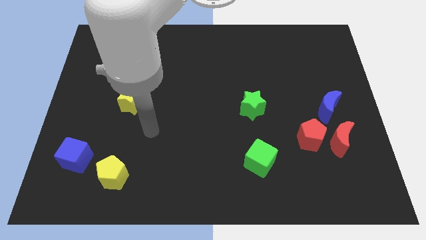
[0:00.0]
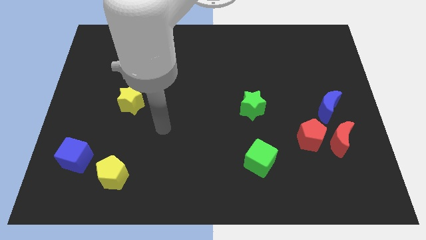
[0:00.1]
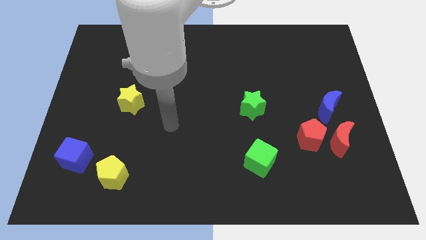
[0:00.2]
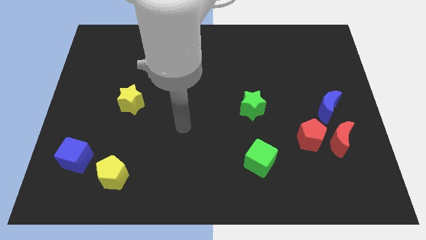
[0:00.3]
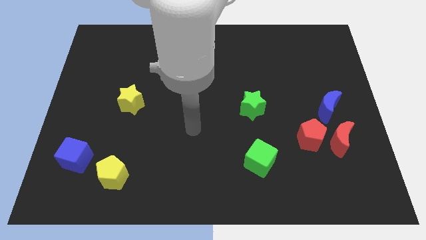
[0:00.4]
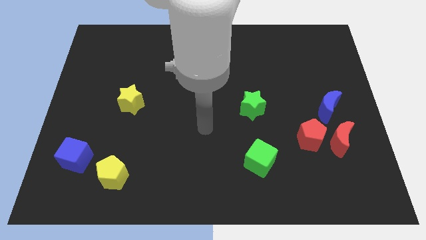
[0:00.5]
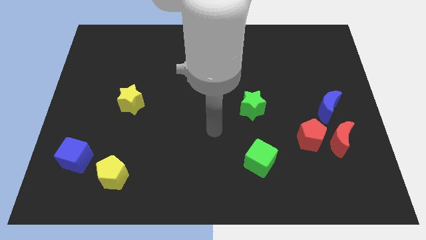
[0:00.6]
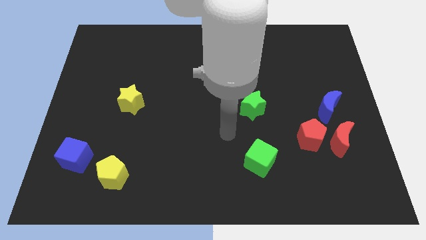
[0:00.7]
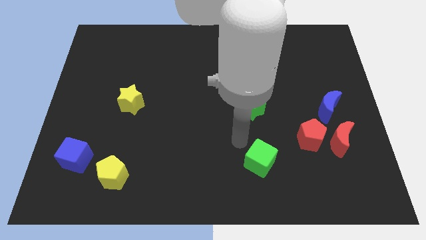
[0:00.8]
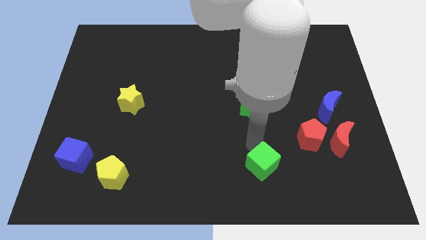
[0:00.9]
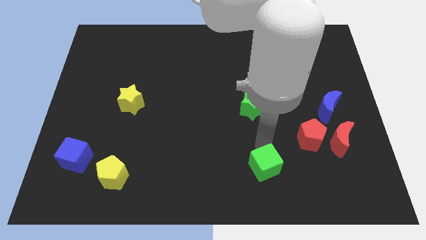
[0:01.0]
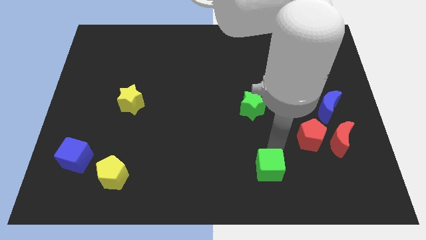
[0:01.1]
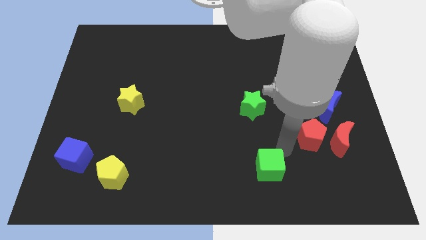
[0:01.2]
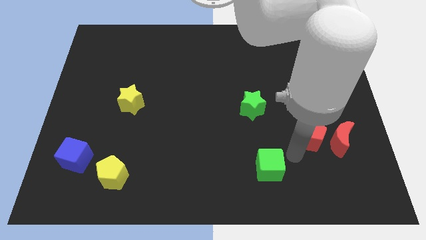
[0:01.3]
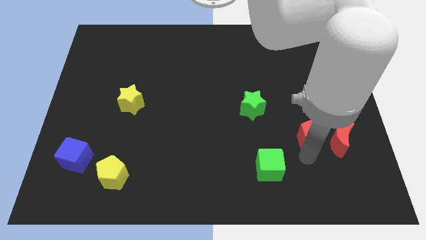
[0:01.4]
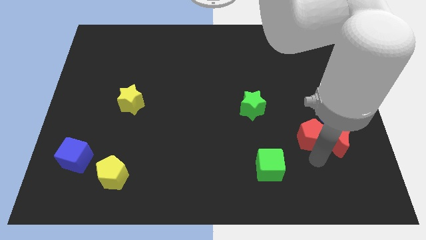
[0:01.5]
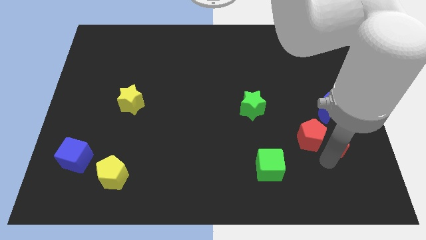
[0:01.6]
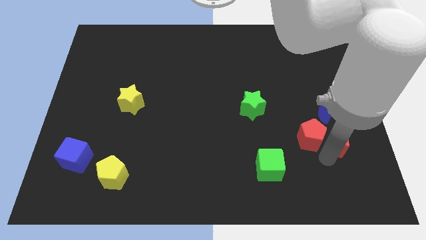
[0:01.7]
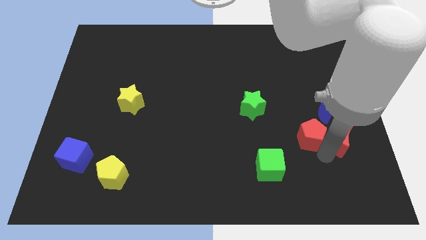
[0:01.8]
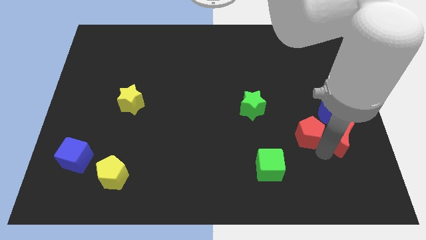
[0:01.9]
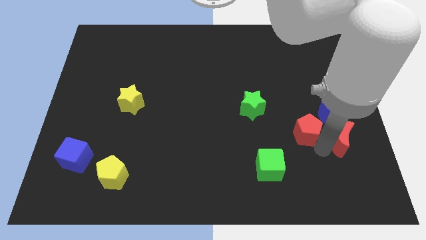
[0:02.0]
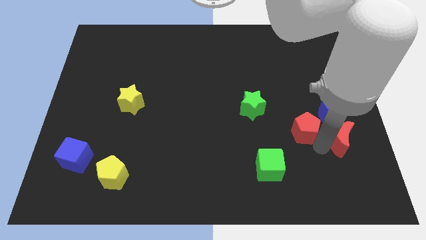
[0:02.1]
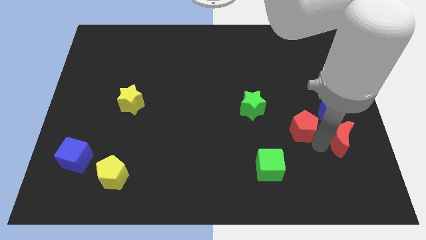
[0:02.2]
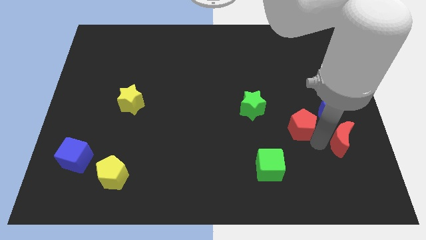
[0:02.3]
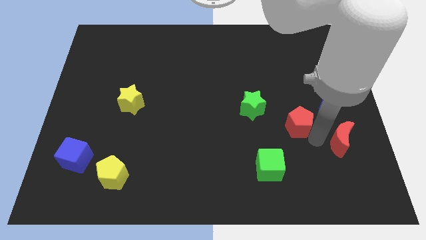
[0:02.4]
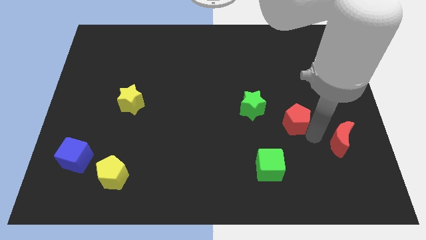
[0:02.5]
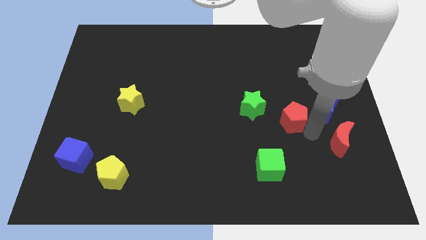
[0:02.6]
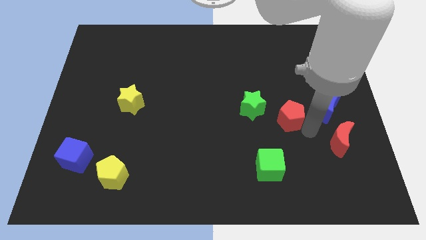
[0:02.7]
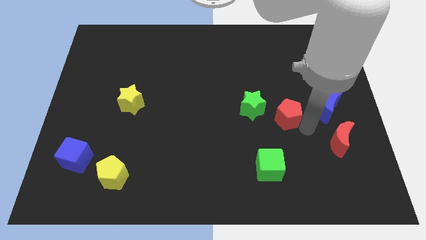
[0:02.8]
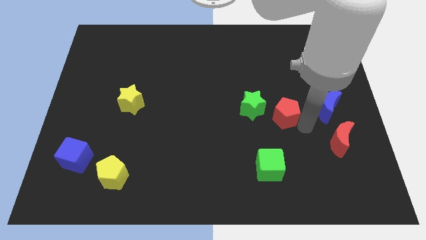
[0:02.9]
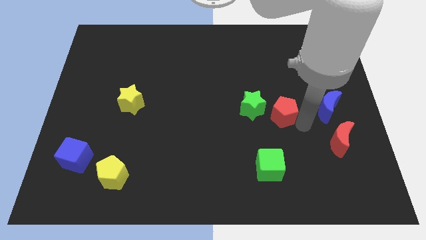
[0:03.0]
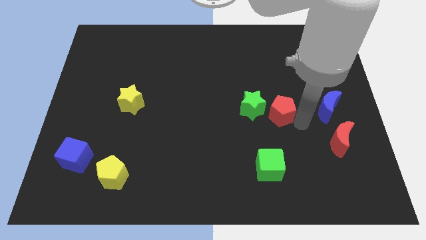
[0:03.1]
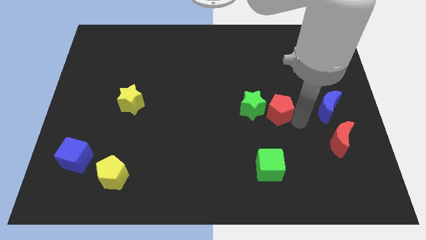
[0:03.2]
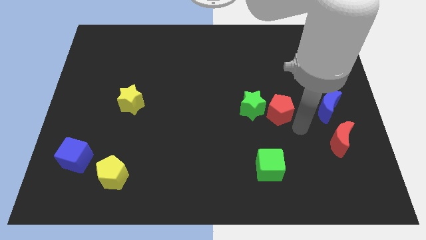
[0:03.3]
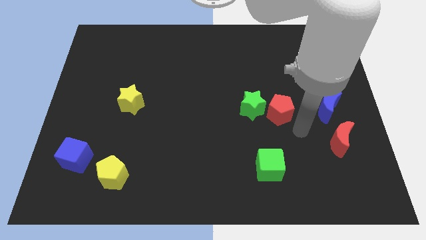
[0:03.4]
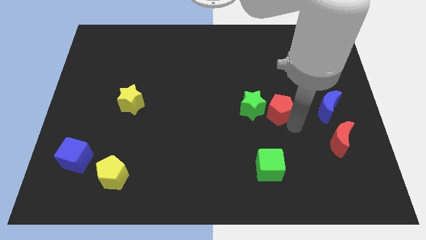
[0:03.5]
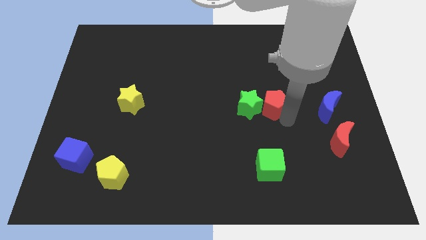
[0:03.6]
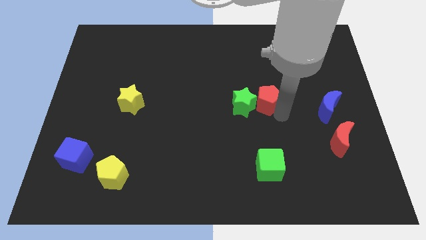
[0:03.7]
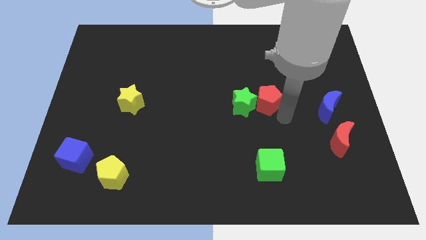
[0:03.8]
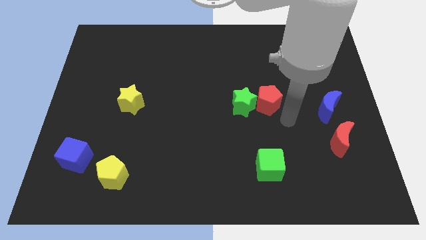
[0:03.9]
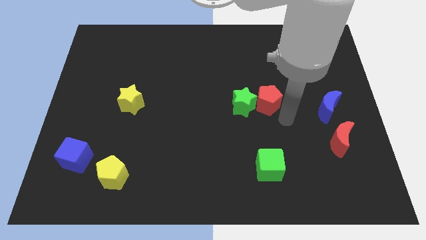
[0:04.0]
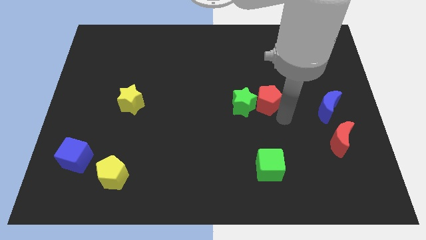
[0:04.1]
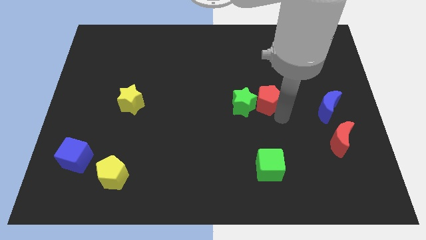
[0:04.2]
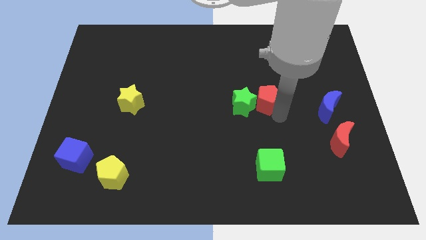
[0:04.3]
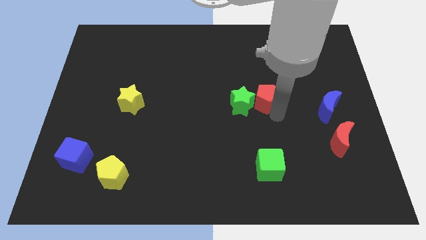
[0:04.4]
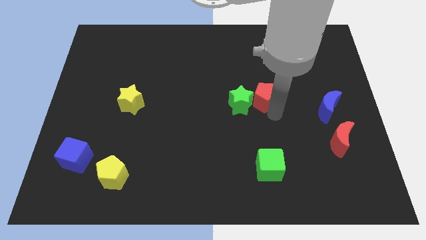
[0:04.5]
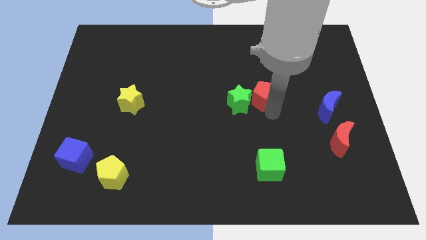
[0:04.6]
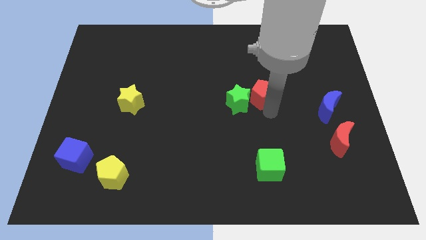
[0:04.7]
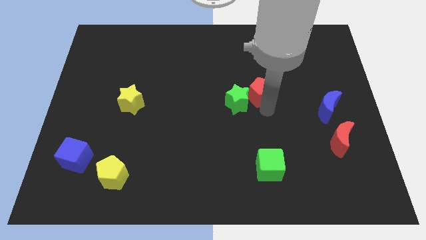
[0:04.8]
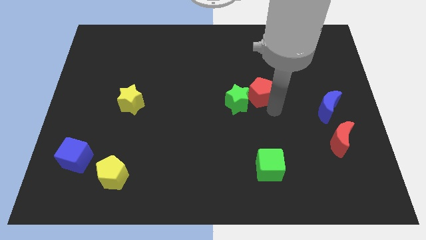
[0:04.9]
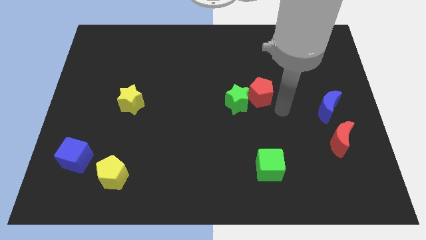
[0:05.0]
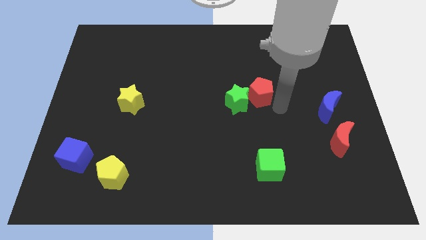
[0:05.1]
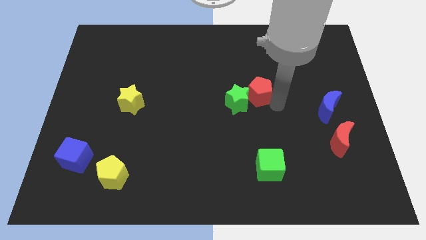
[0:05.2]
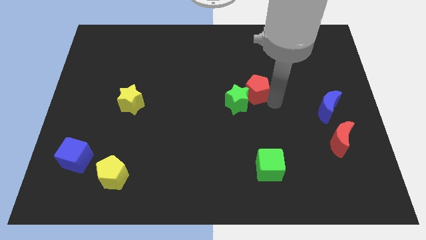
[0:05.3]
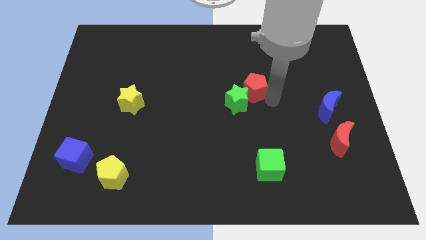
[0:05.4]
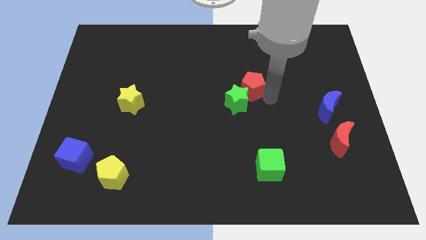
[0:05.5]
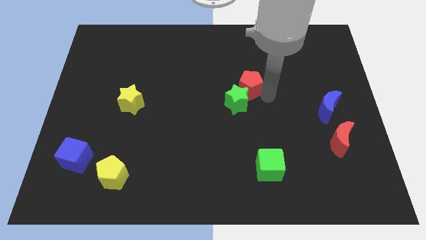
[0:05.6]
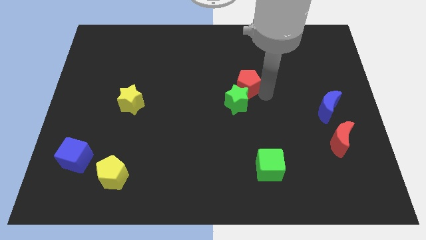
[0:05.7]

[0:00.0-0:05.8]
slide the red pentagon upwards and then to the left

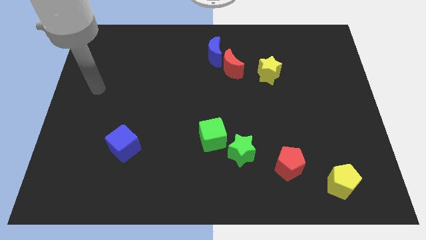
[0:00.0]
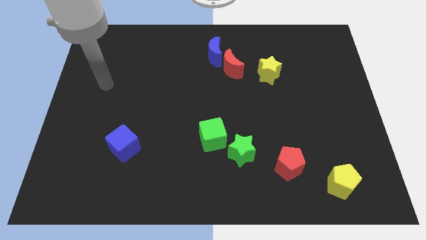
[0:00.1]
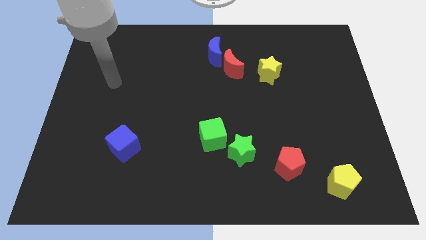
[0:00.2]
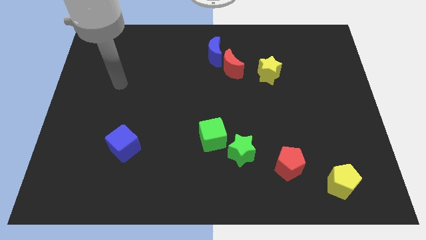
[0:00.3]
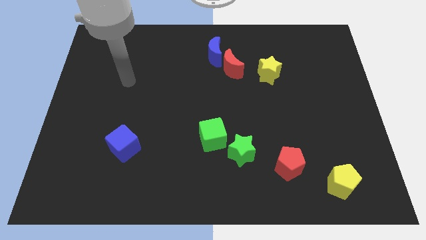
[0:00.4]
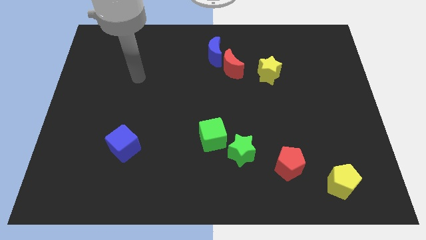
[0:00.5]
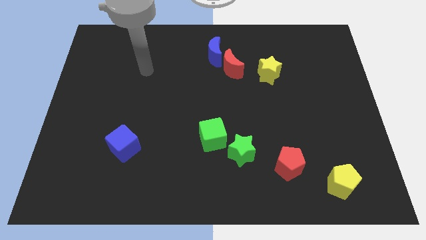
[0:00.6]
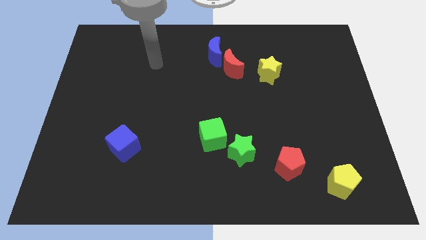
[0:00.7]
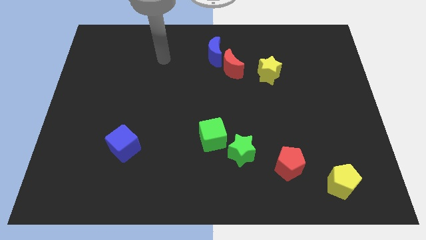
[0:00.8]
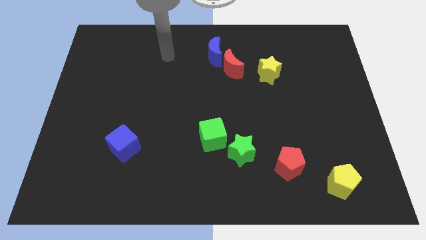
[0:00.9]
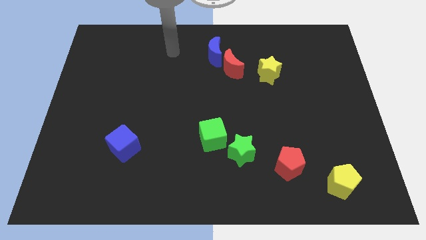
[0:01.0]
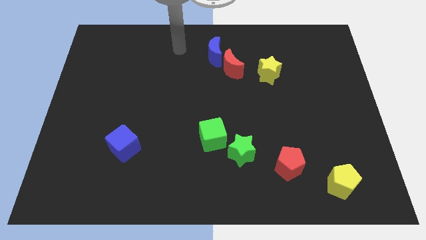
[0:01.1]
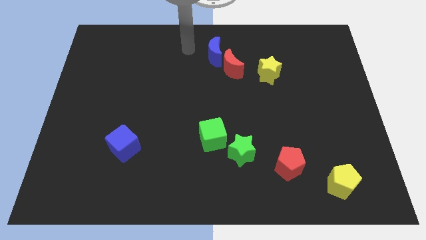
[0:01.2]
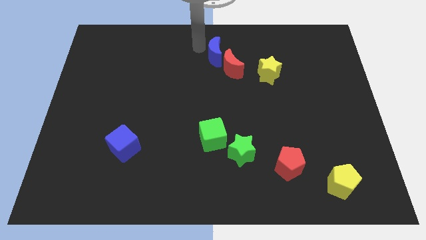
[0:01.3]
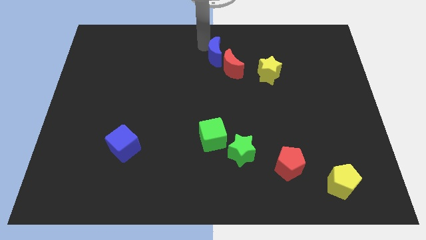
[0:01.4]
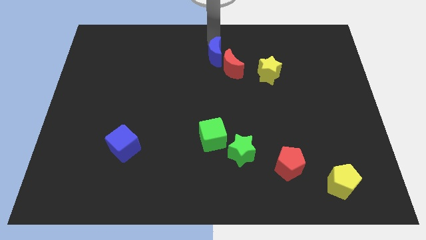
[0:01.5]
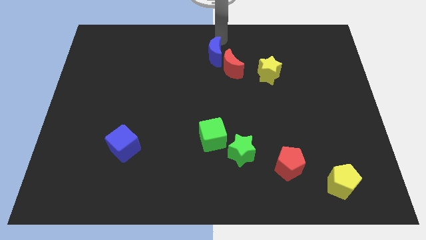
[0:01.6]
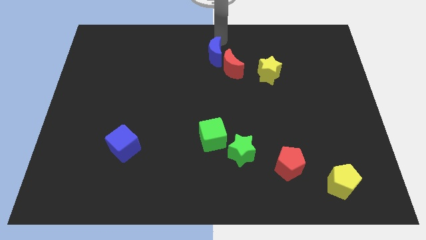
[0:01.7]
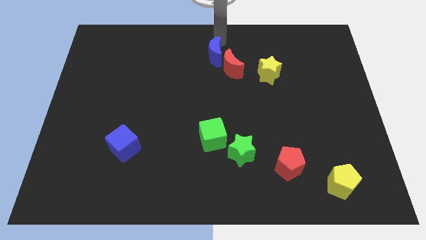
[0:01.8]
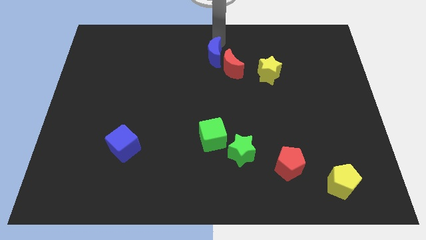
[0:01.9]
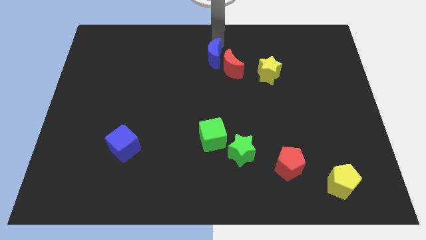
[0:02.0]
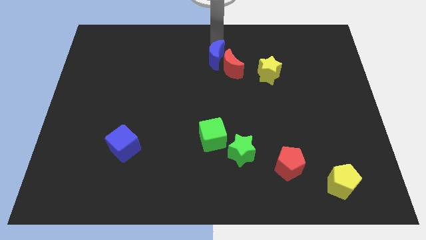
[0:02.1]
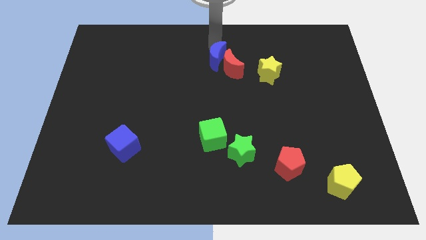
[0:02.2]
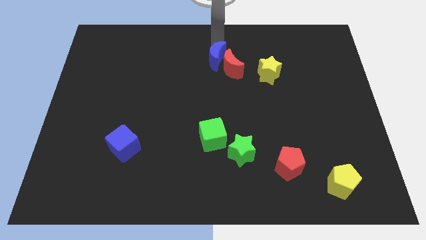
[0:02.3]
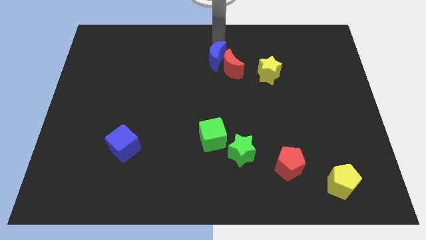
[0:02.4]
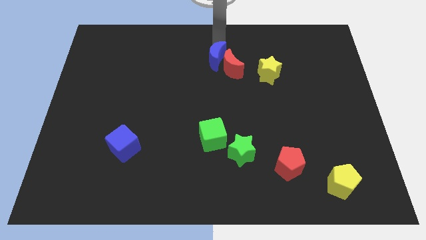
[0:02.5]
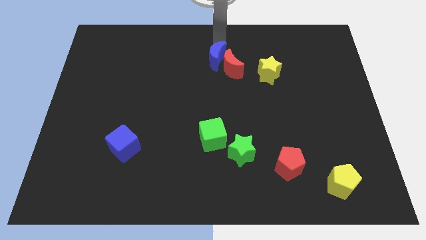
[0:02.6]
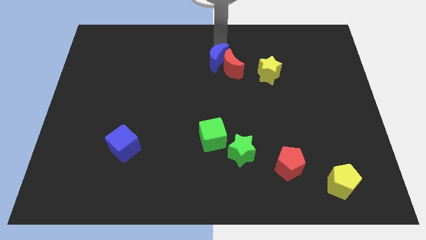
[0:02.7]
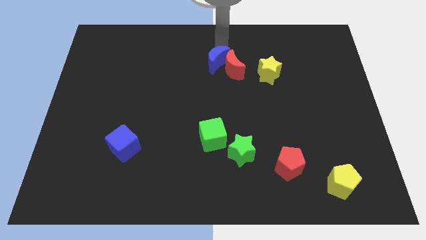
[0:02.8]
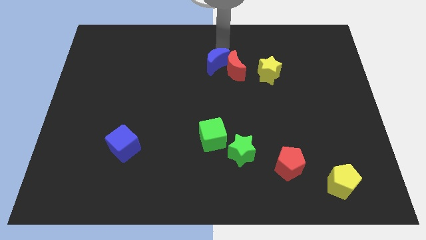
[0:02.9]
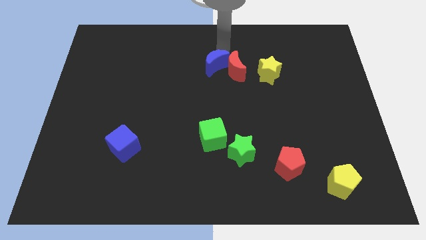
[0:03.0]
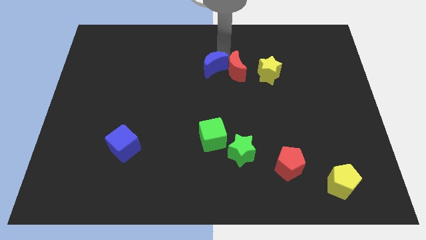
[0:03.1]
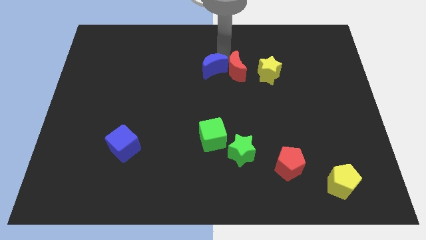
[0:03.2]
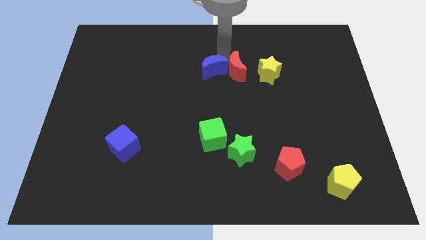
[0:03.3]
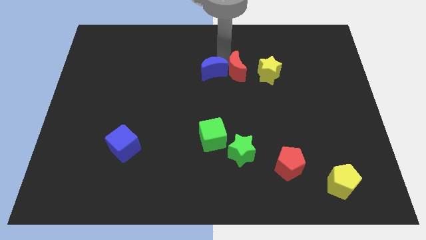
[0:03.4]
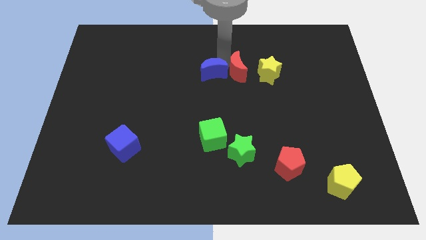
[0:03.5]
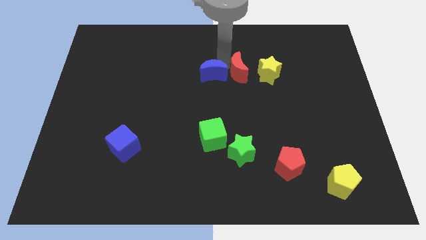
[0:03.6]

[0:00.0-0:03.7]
push the blue moon a little downwards
